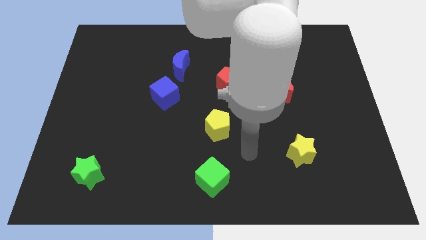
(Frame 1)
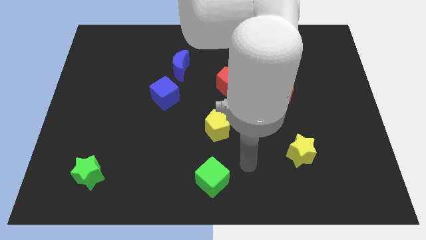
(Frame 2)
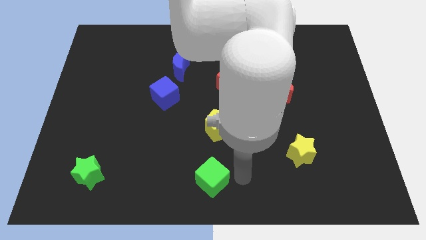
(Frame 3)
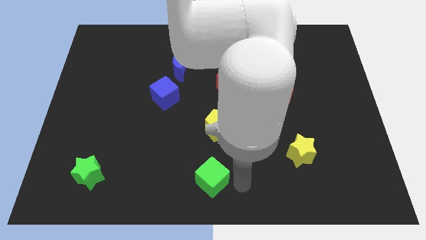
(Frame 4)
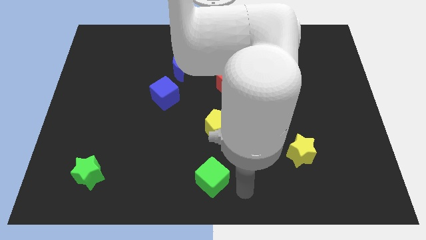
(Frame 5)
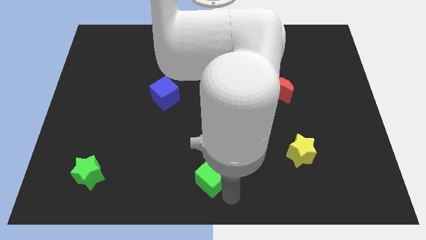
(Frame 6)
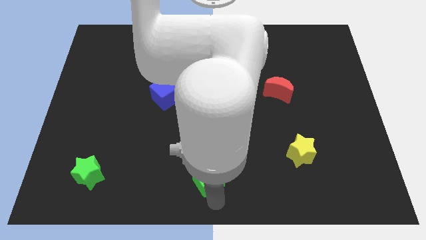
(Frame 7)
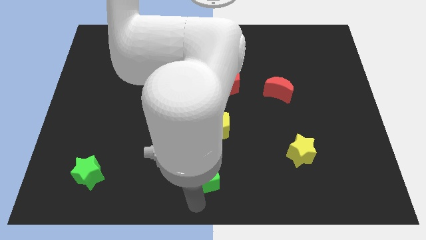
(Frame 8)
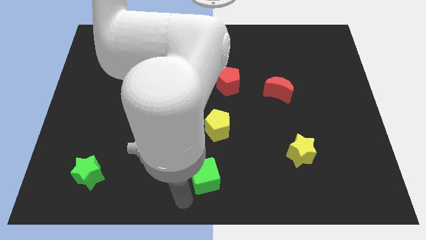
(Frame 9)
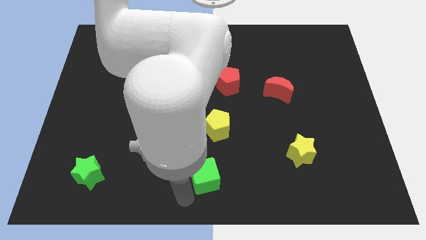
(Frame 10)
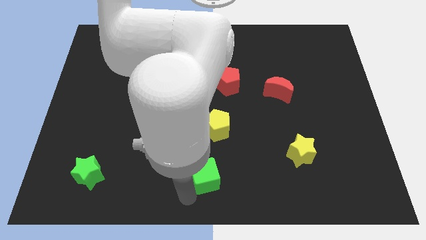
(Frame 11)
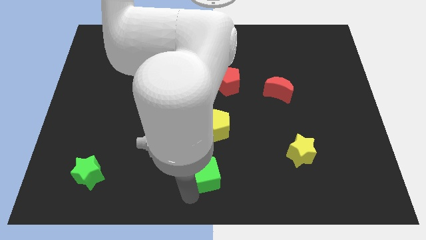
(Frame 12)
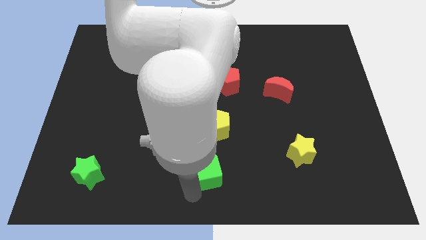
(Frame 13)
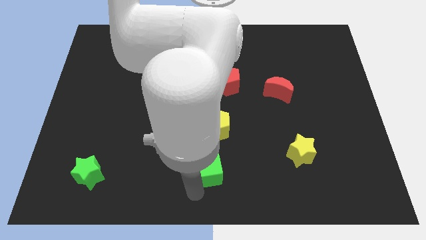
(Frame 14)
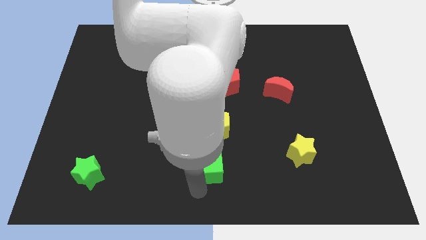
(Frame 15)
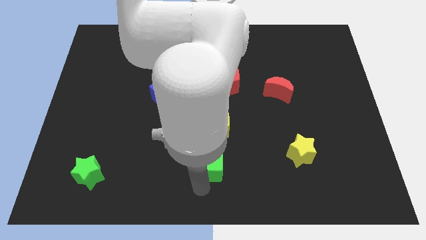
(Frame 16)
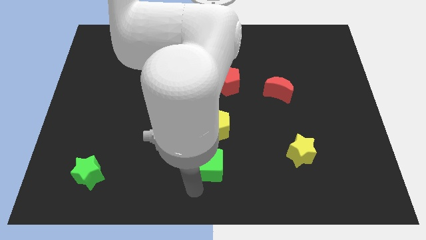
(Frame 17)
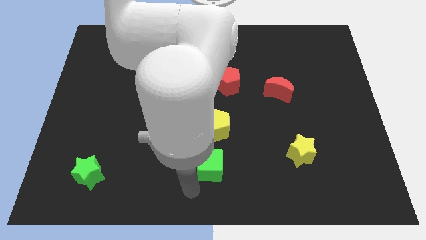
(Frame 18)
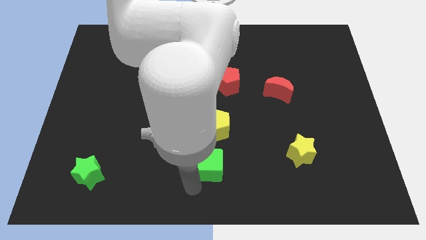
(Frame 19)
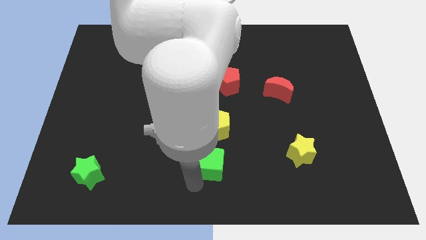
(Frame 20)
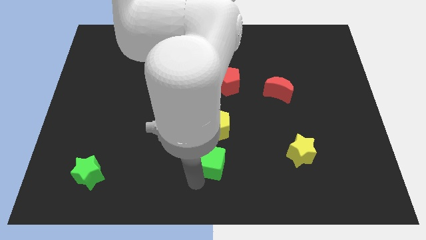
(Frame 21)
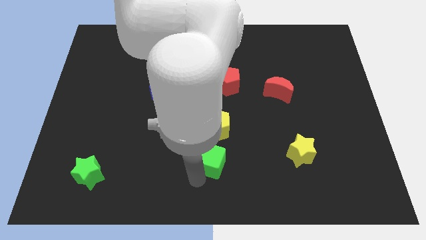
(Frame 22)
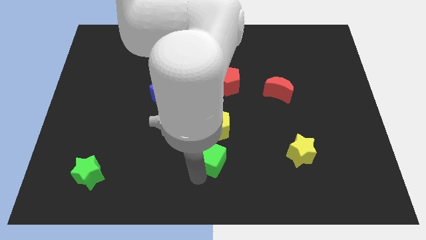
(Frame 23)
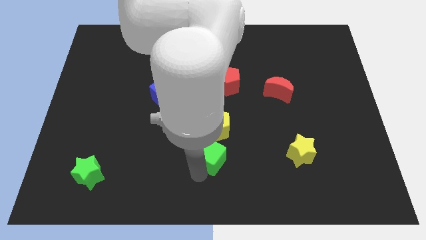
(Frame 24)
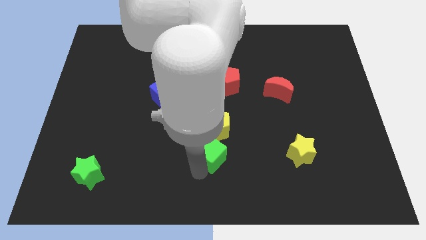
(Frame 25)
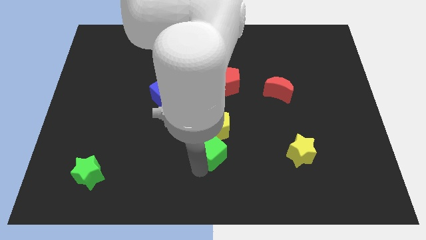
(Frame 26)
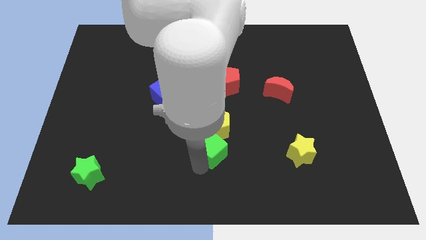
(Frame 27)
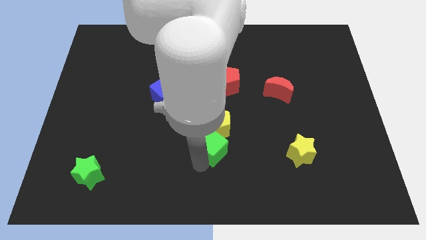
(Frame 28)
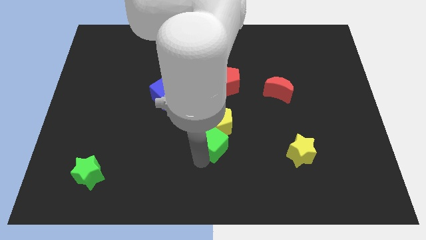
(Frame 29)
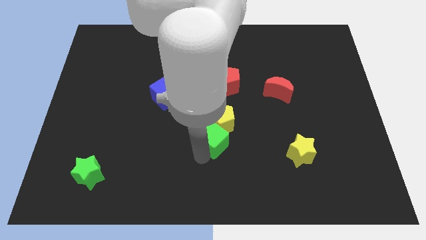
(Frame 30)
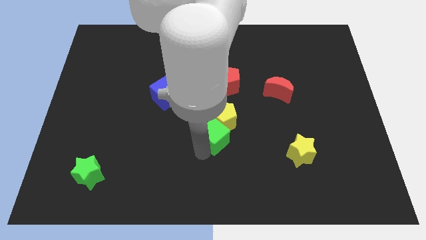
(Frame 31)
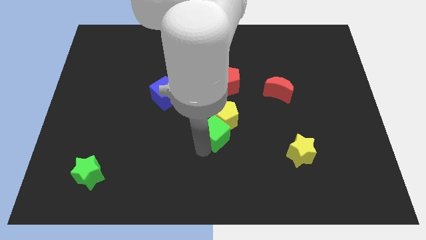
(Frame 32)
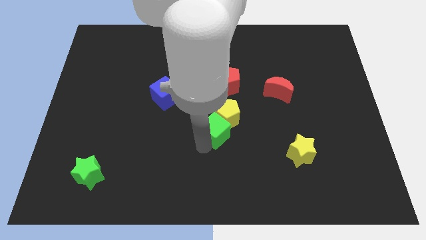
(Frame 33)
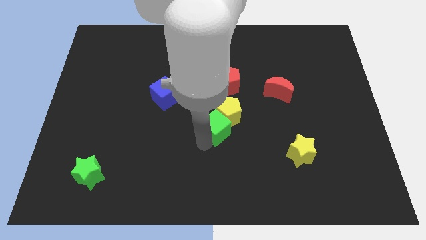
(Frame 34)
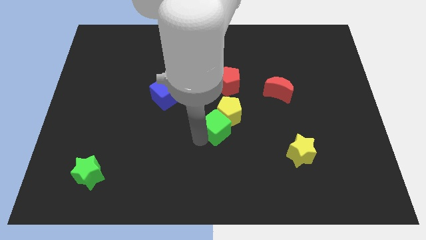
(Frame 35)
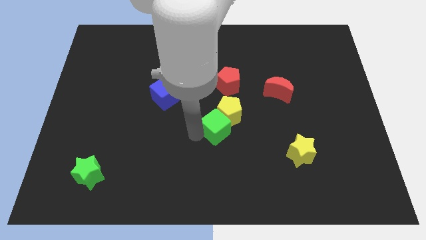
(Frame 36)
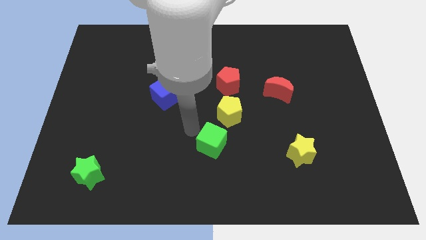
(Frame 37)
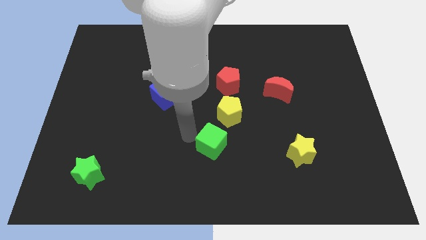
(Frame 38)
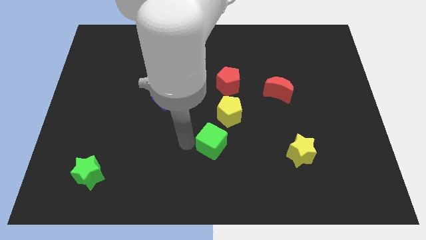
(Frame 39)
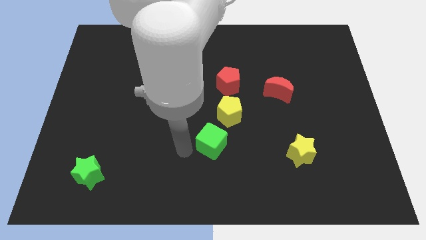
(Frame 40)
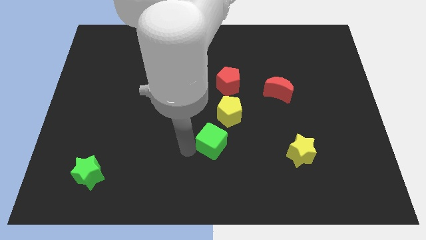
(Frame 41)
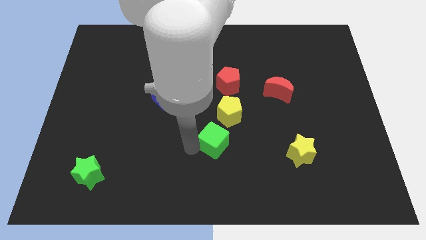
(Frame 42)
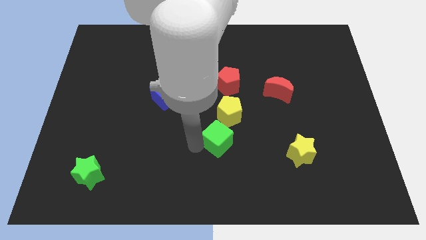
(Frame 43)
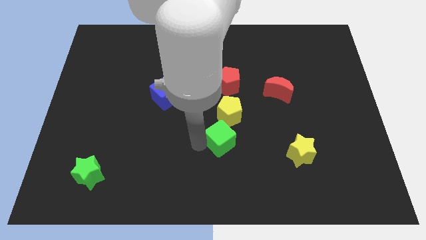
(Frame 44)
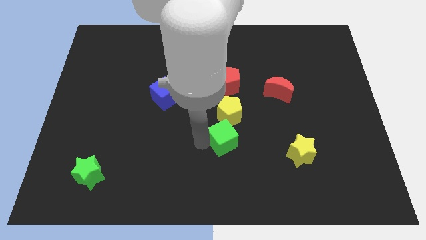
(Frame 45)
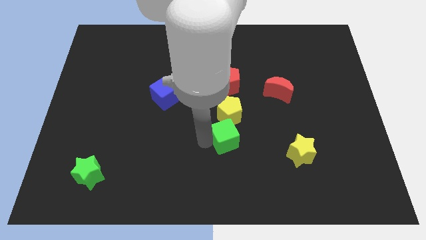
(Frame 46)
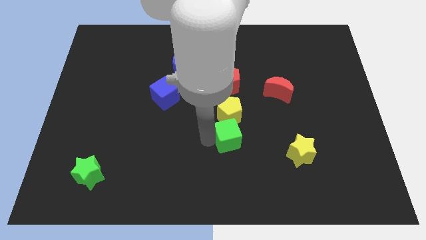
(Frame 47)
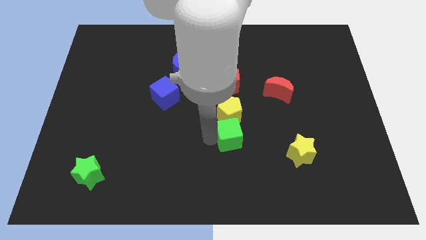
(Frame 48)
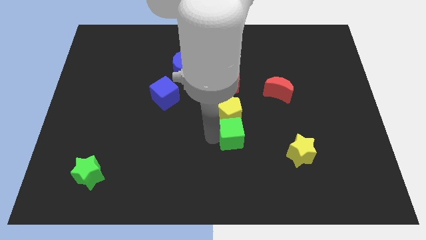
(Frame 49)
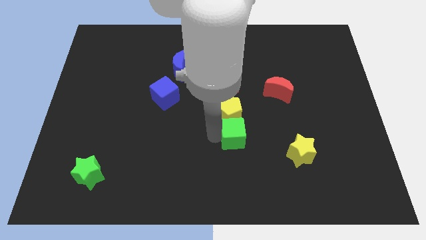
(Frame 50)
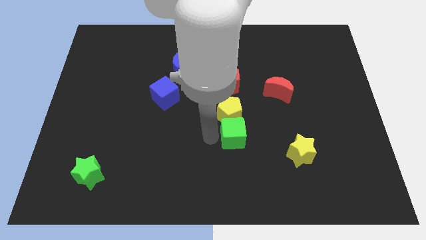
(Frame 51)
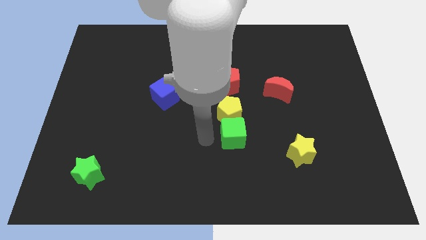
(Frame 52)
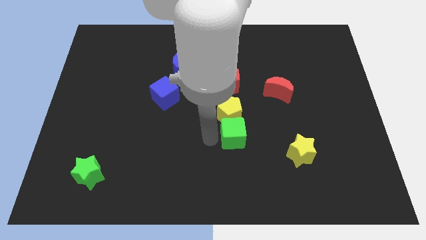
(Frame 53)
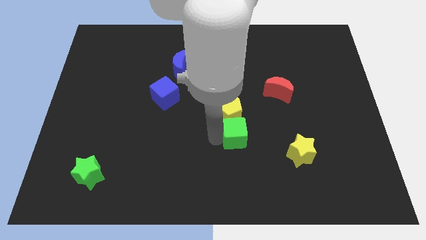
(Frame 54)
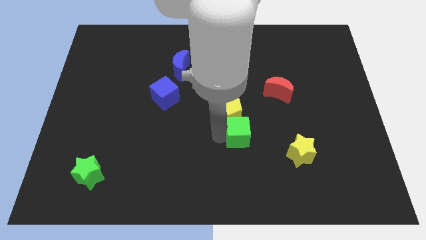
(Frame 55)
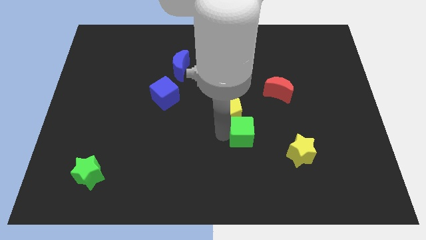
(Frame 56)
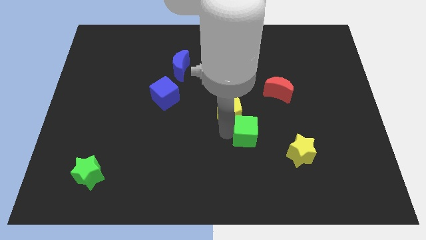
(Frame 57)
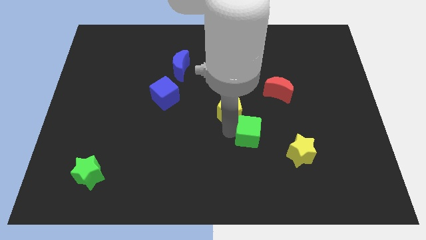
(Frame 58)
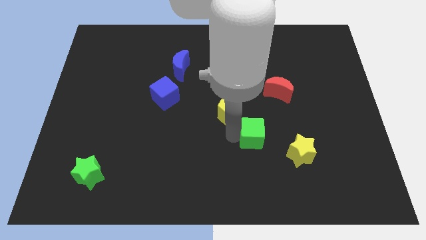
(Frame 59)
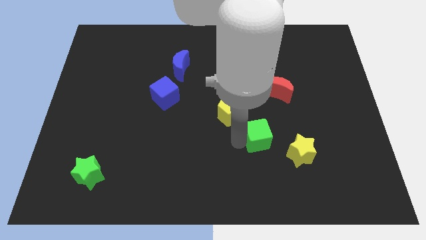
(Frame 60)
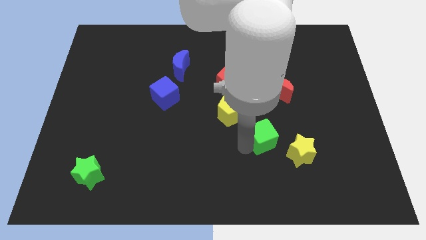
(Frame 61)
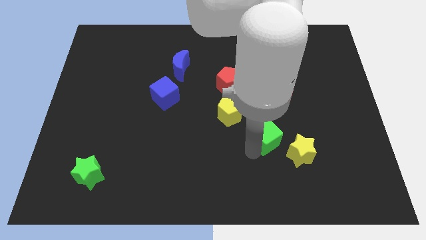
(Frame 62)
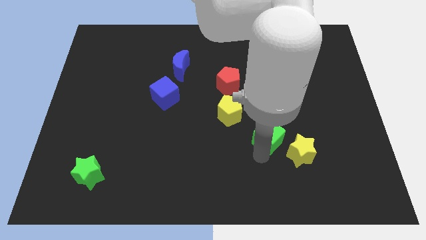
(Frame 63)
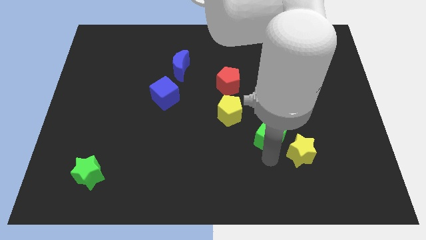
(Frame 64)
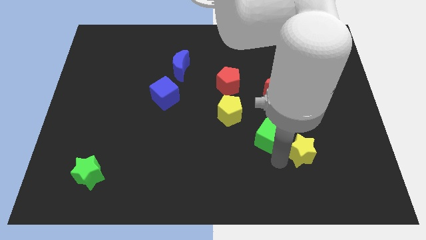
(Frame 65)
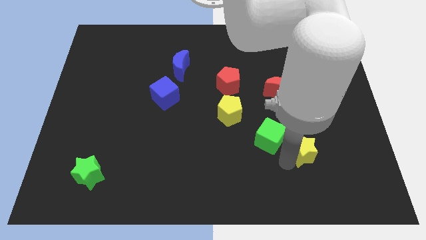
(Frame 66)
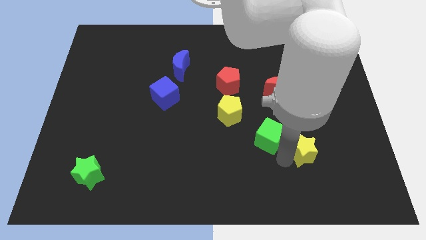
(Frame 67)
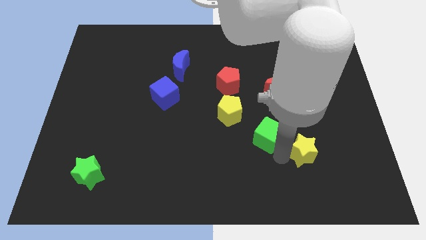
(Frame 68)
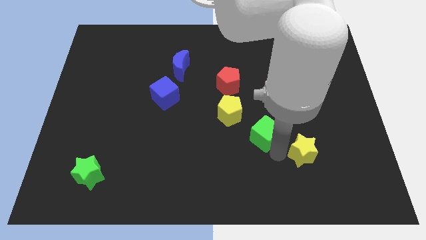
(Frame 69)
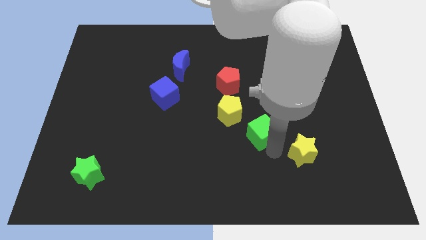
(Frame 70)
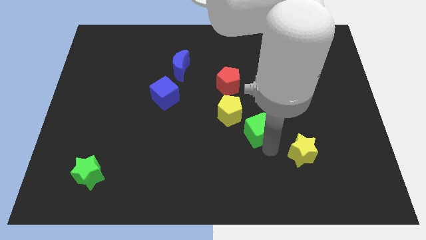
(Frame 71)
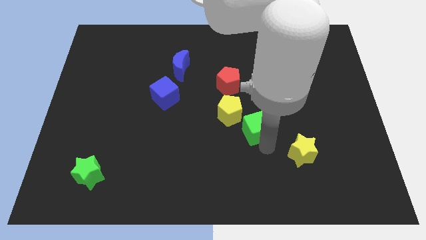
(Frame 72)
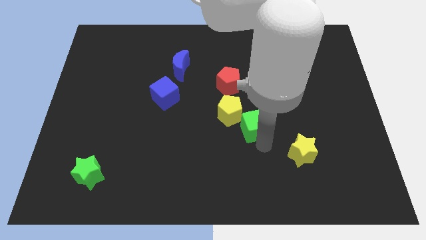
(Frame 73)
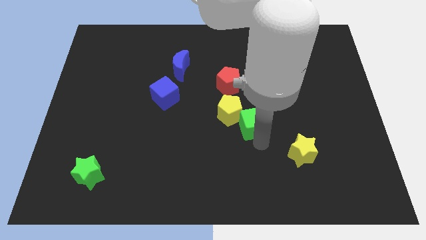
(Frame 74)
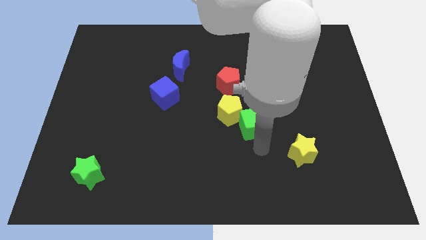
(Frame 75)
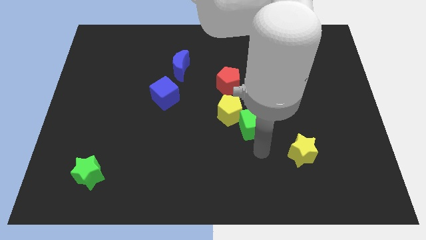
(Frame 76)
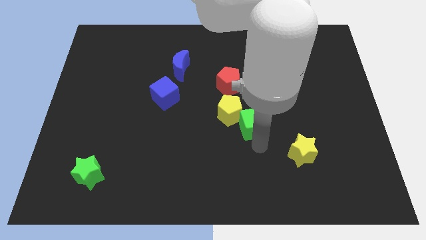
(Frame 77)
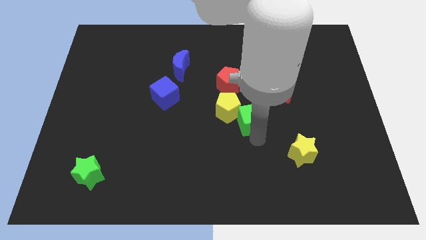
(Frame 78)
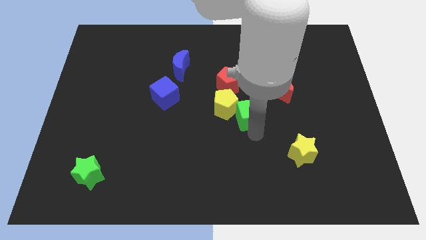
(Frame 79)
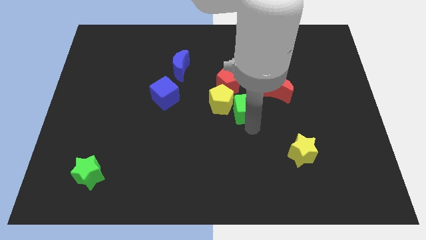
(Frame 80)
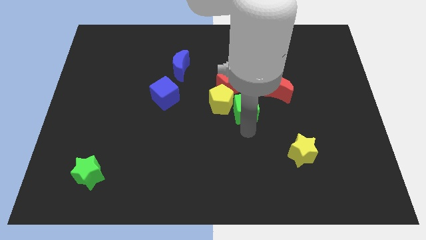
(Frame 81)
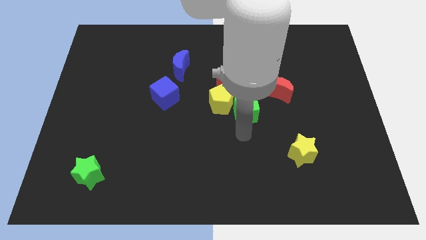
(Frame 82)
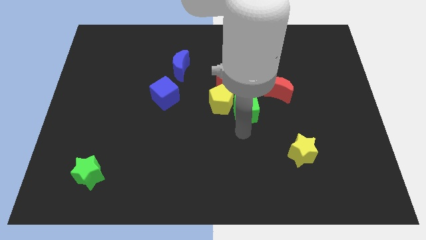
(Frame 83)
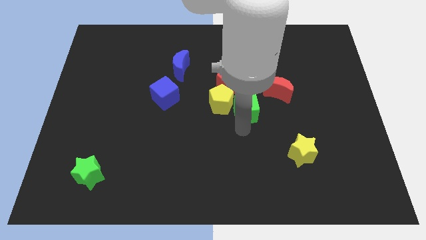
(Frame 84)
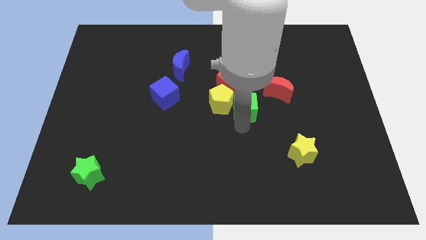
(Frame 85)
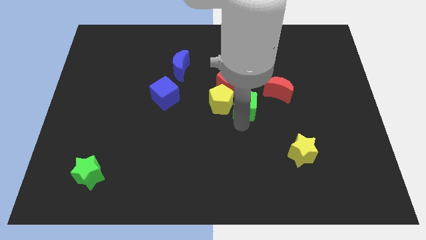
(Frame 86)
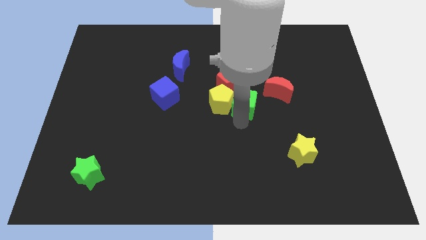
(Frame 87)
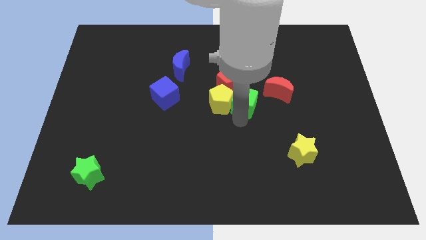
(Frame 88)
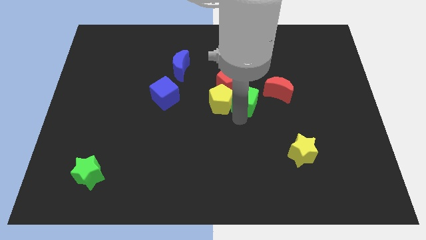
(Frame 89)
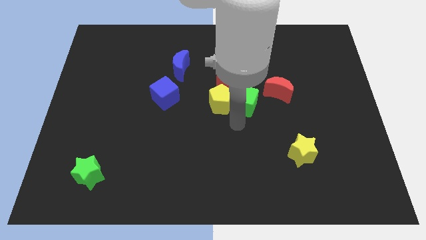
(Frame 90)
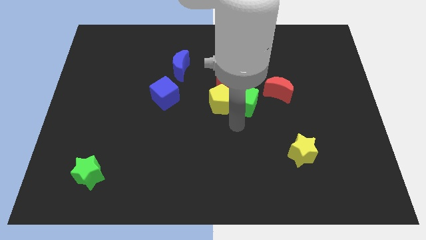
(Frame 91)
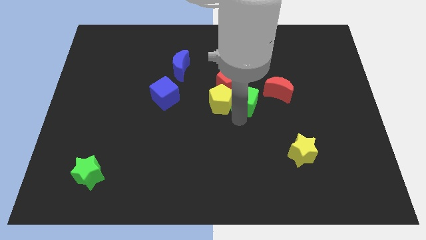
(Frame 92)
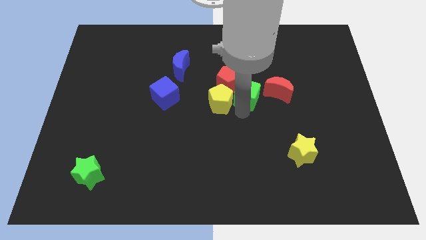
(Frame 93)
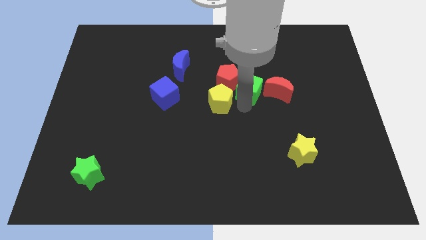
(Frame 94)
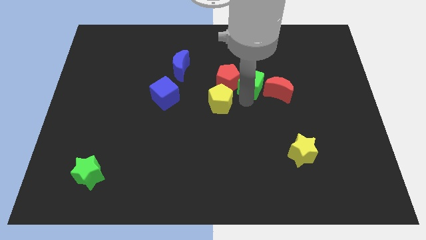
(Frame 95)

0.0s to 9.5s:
push the green cube to the top left side of the red moon
